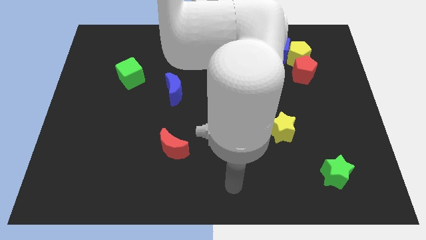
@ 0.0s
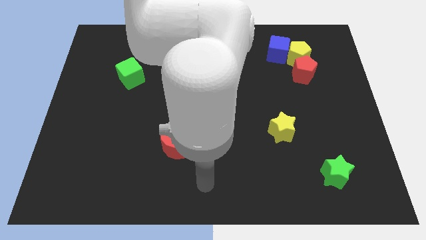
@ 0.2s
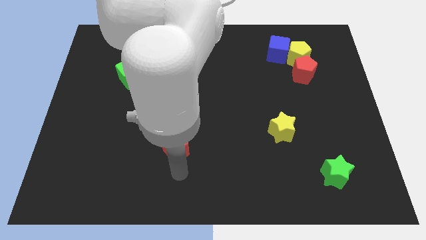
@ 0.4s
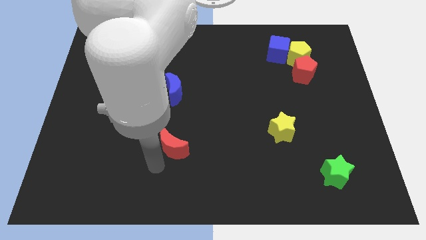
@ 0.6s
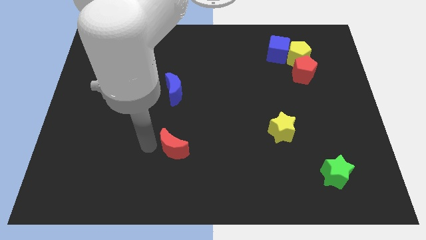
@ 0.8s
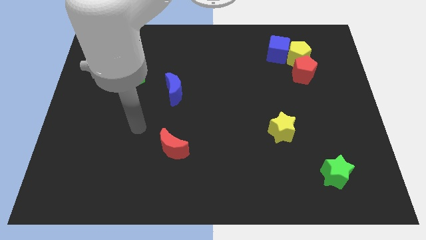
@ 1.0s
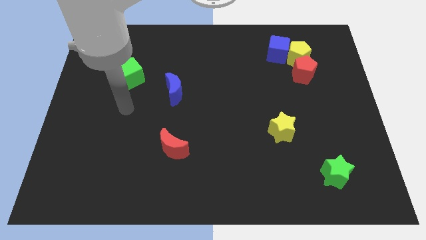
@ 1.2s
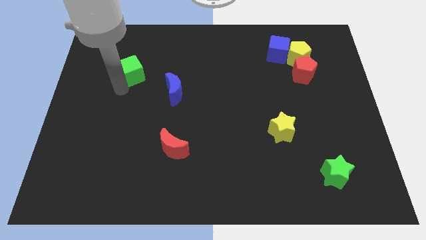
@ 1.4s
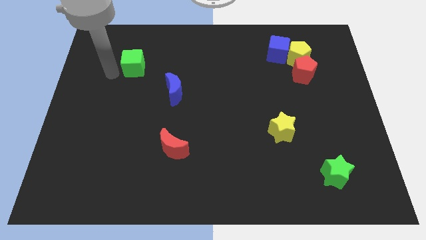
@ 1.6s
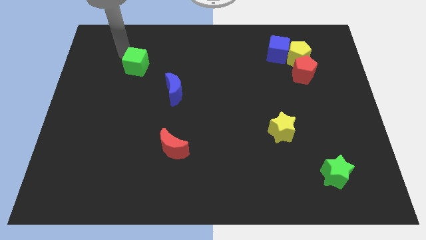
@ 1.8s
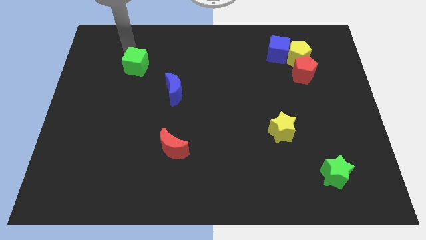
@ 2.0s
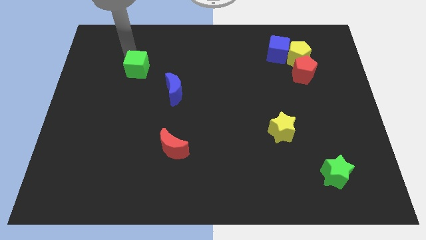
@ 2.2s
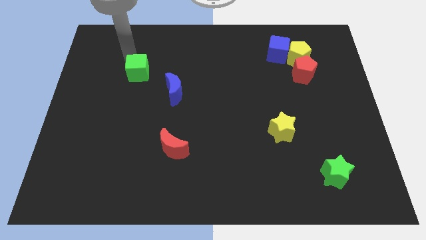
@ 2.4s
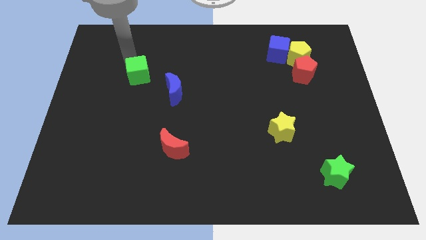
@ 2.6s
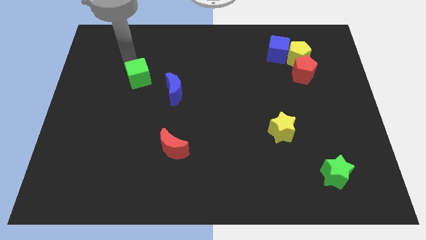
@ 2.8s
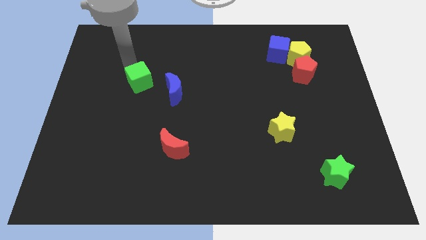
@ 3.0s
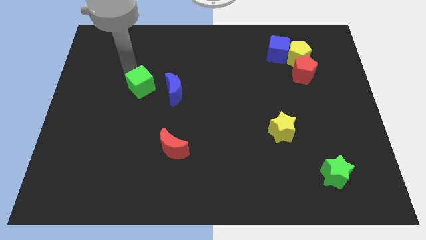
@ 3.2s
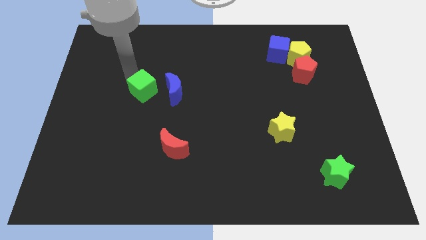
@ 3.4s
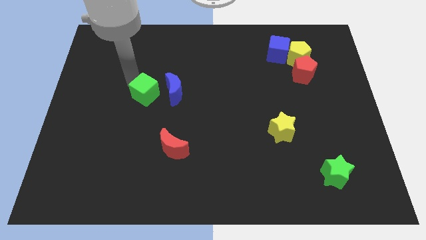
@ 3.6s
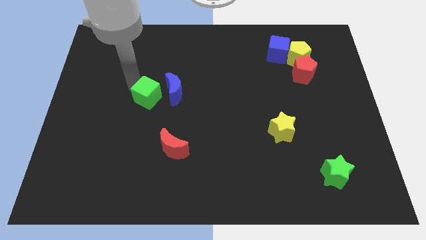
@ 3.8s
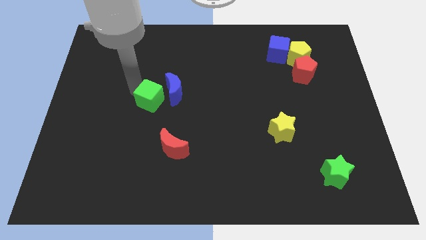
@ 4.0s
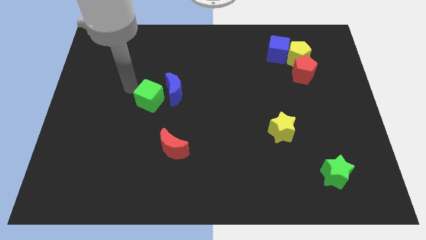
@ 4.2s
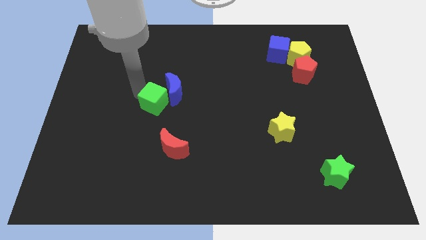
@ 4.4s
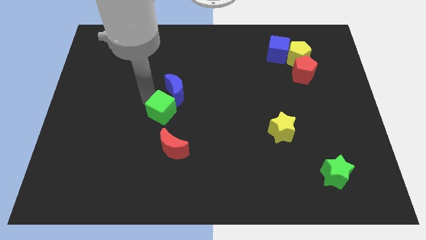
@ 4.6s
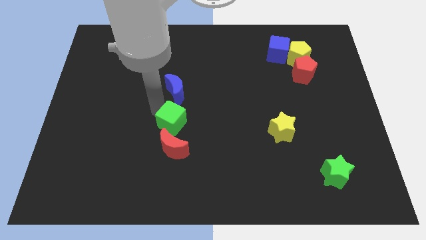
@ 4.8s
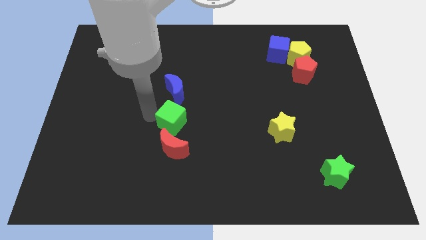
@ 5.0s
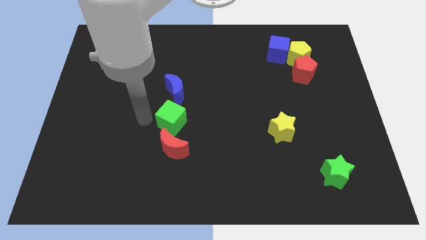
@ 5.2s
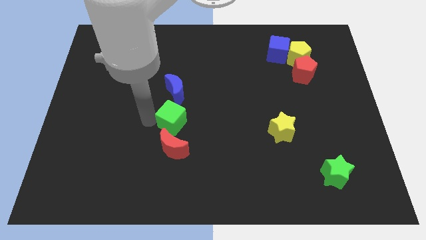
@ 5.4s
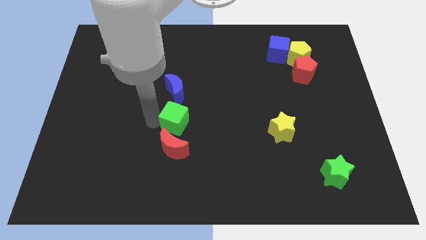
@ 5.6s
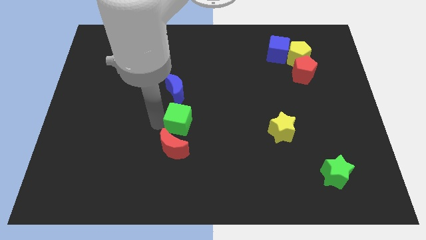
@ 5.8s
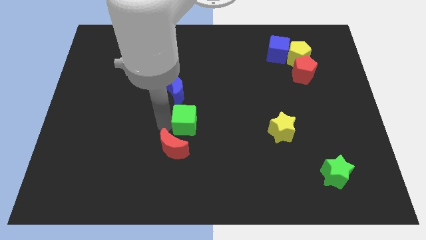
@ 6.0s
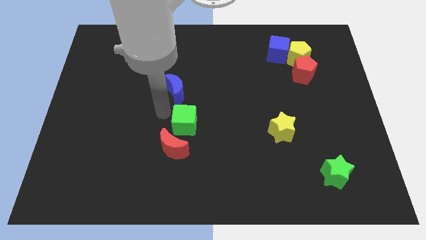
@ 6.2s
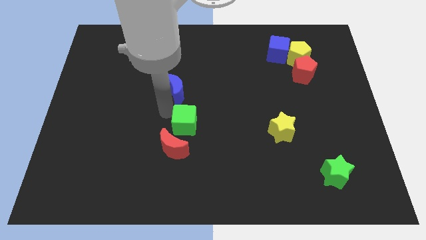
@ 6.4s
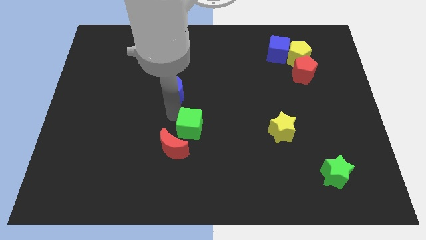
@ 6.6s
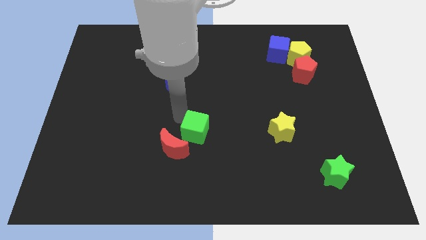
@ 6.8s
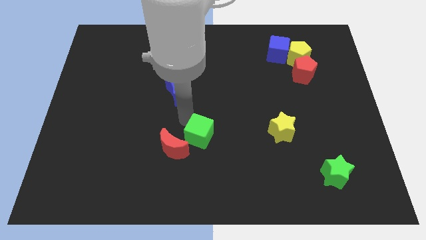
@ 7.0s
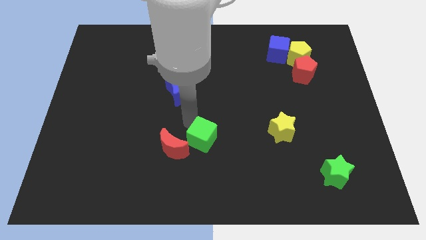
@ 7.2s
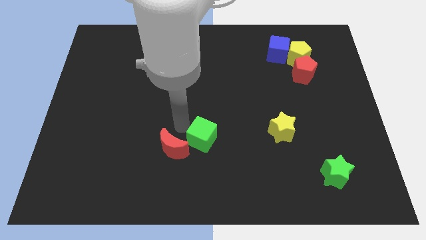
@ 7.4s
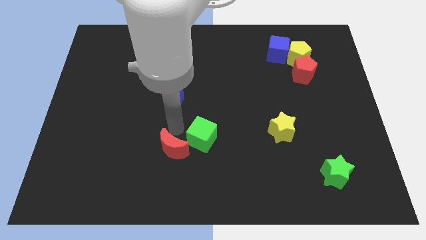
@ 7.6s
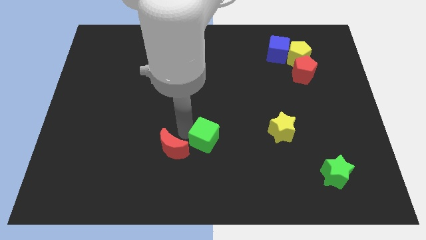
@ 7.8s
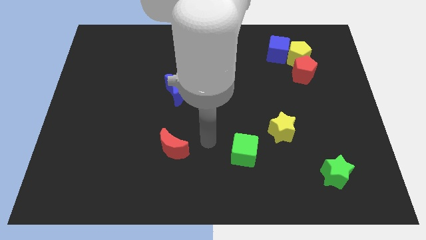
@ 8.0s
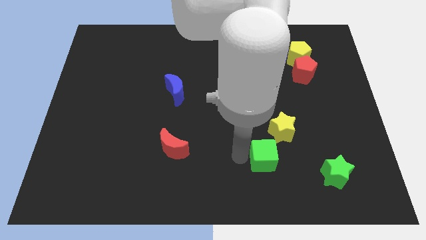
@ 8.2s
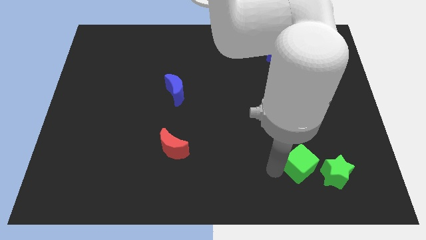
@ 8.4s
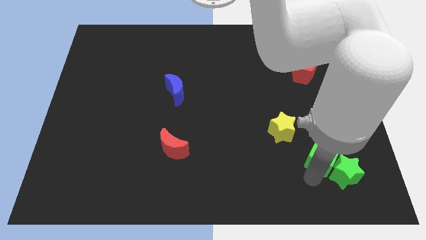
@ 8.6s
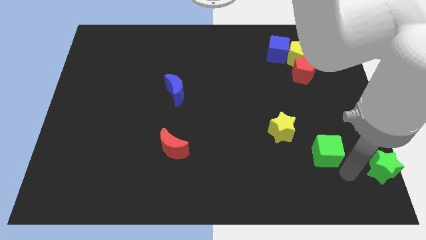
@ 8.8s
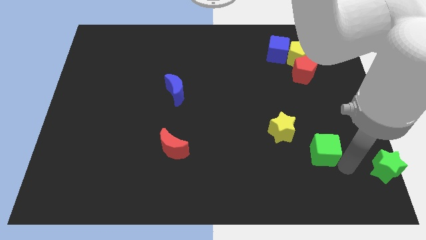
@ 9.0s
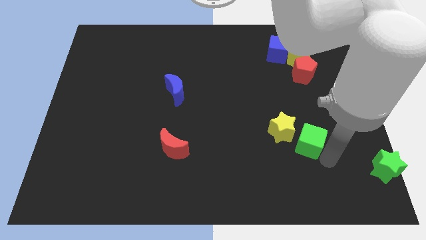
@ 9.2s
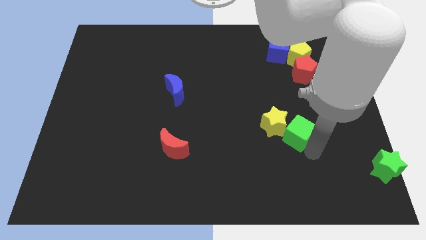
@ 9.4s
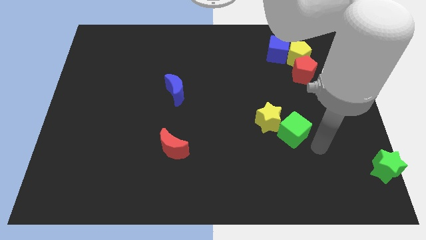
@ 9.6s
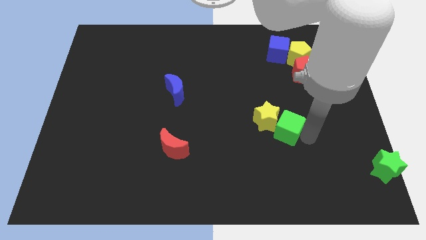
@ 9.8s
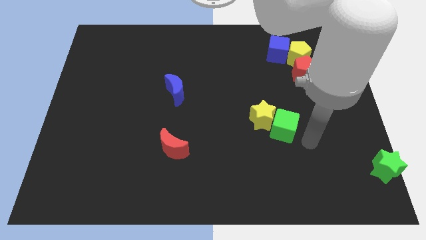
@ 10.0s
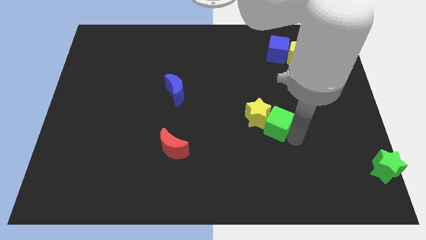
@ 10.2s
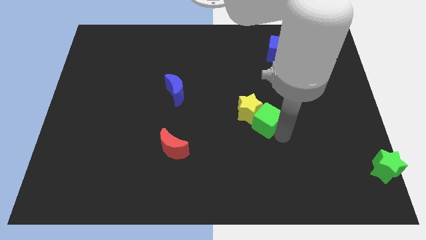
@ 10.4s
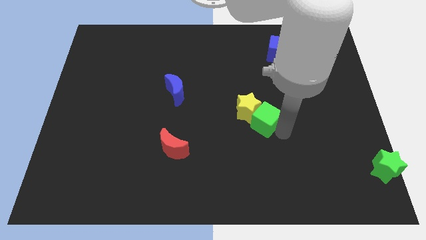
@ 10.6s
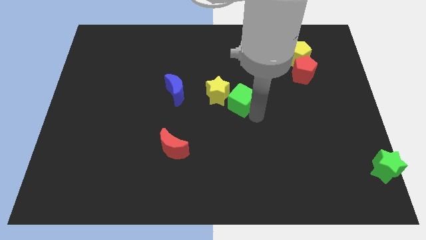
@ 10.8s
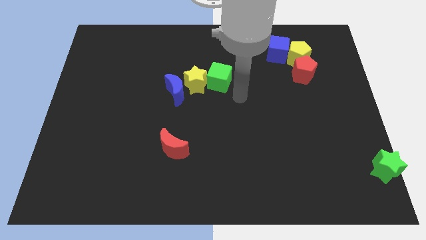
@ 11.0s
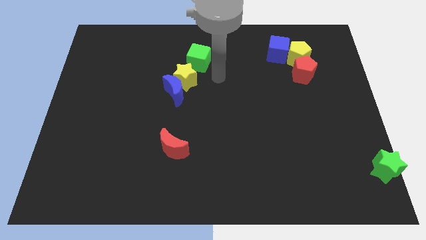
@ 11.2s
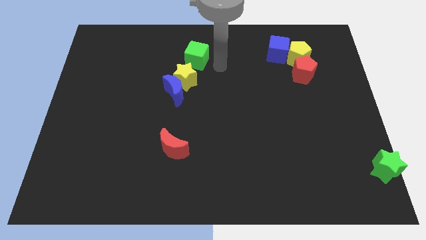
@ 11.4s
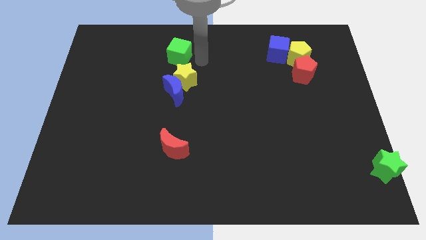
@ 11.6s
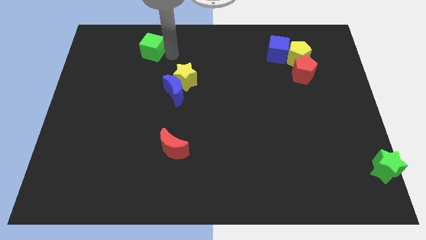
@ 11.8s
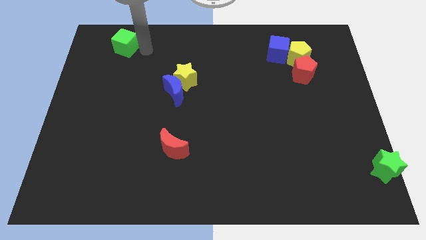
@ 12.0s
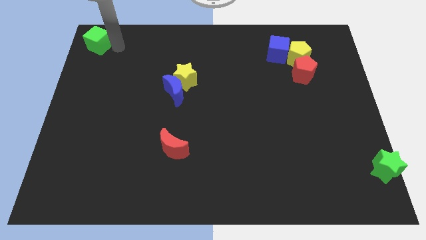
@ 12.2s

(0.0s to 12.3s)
move the green cube to the upper left corner
